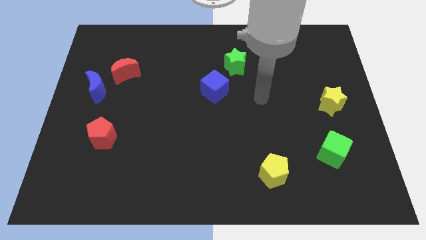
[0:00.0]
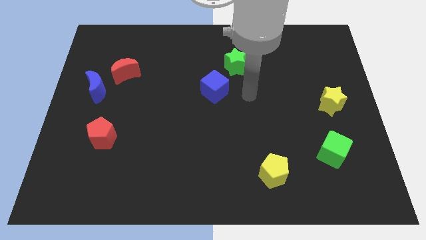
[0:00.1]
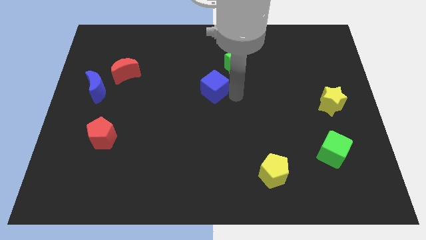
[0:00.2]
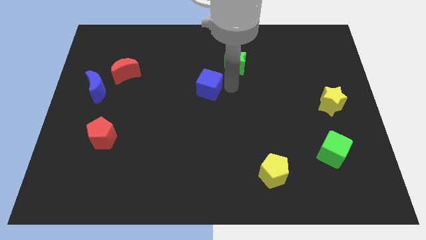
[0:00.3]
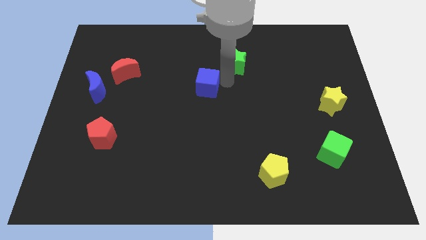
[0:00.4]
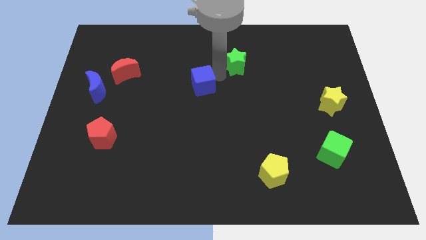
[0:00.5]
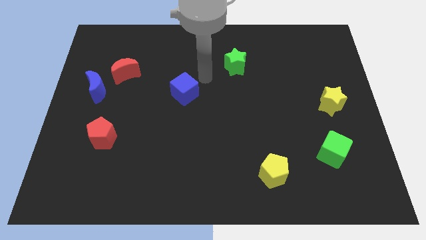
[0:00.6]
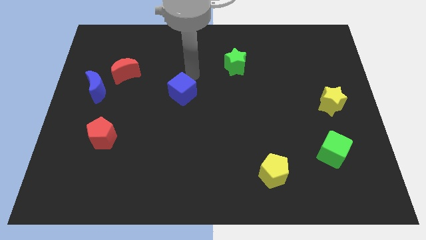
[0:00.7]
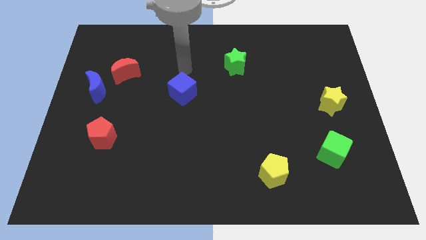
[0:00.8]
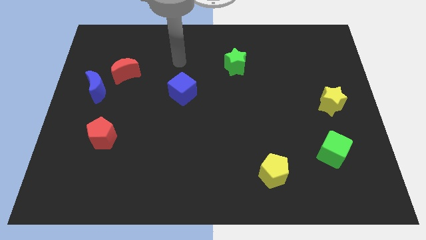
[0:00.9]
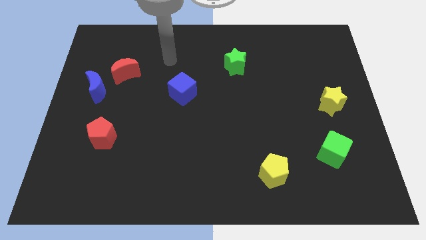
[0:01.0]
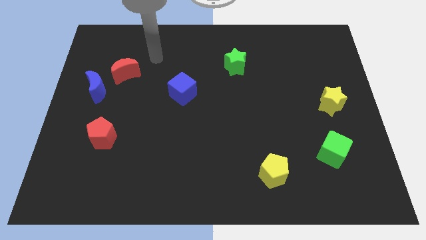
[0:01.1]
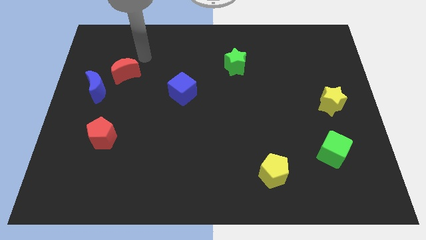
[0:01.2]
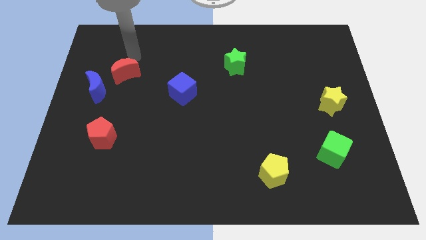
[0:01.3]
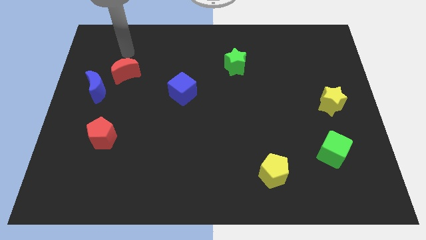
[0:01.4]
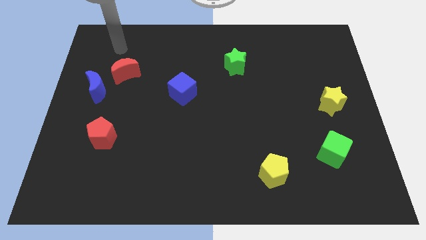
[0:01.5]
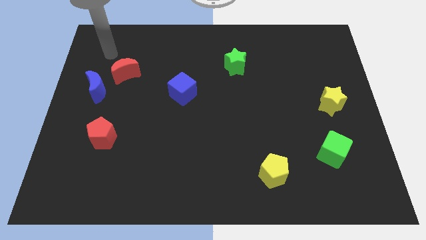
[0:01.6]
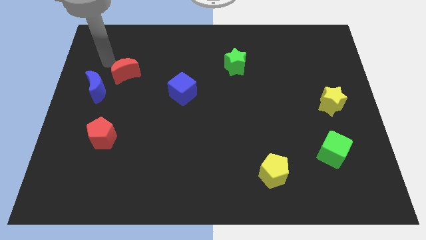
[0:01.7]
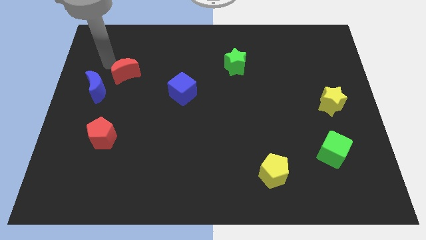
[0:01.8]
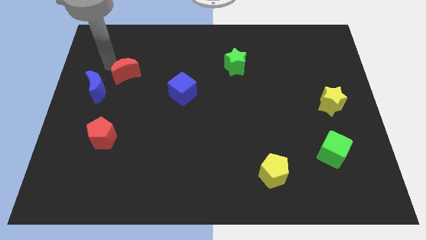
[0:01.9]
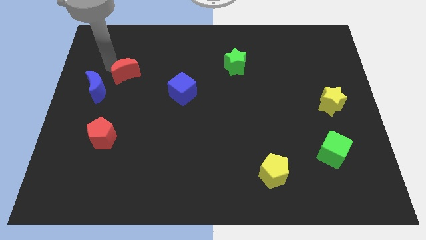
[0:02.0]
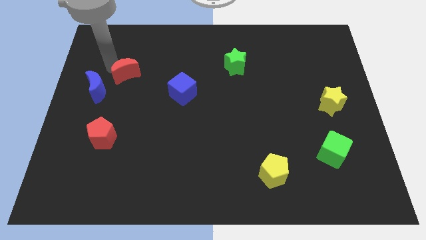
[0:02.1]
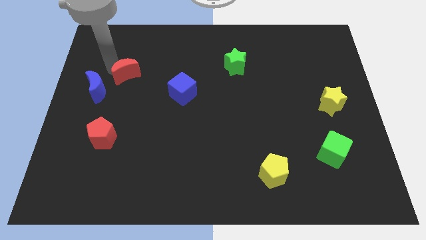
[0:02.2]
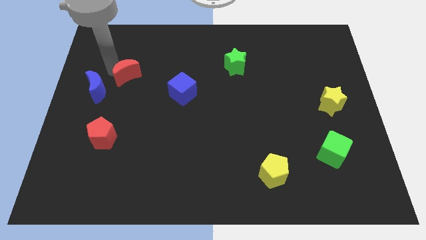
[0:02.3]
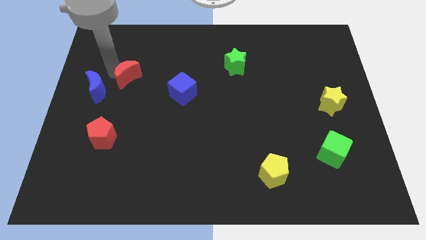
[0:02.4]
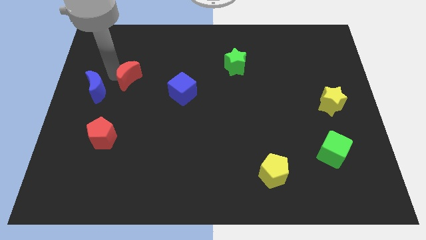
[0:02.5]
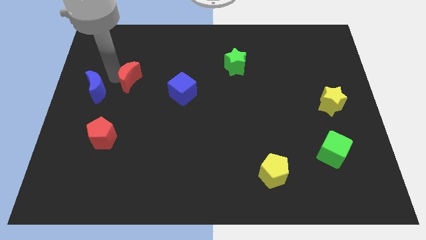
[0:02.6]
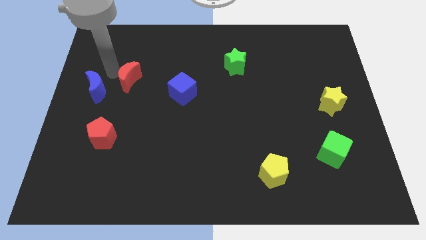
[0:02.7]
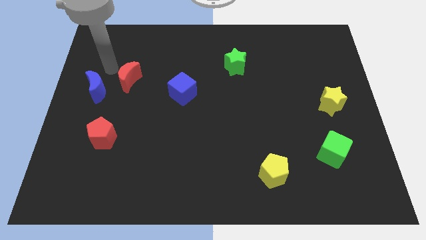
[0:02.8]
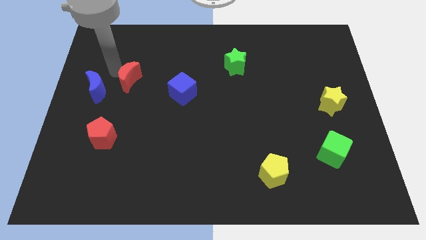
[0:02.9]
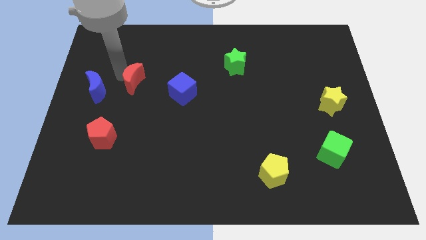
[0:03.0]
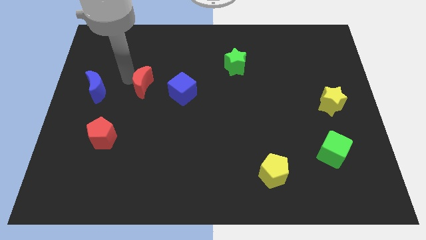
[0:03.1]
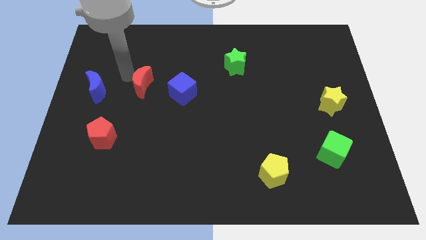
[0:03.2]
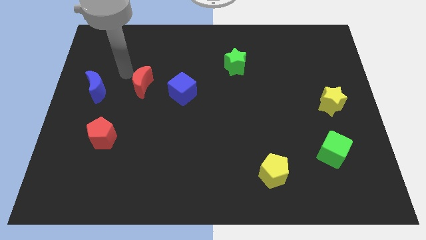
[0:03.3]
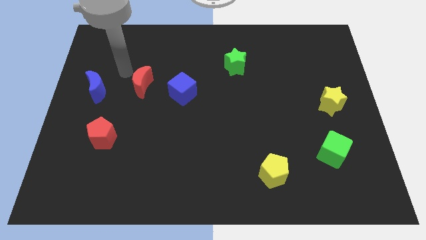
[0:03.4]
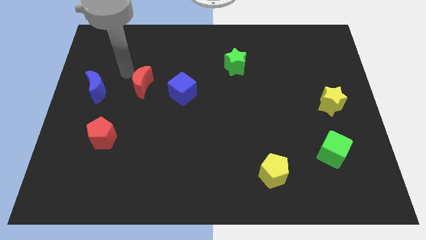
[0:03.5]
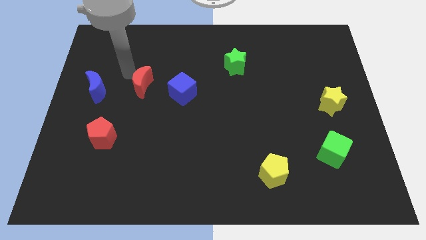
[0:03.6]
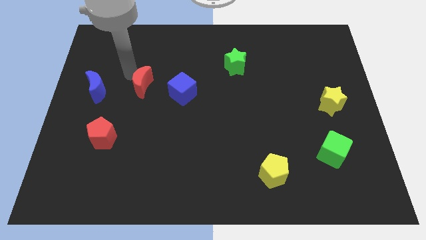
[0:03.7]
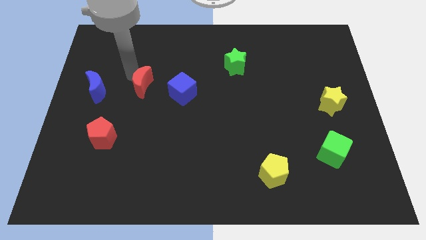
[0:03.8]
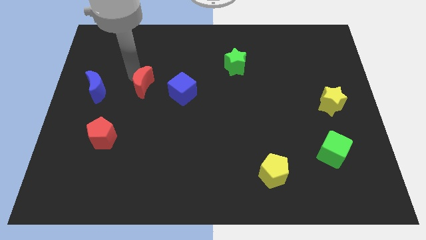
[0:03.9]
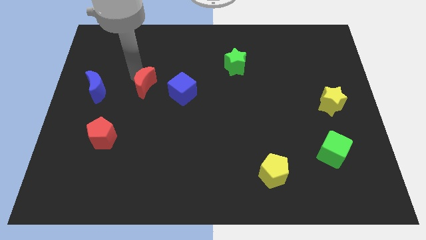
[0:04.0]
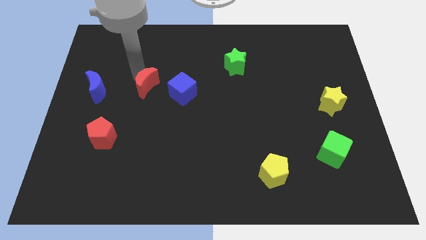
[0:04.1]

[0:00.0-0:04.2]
move the red moon a little downwards and then to the right

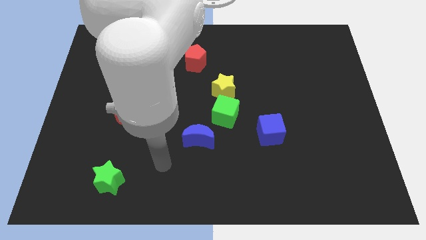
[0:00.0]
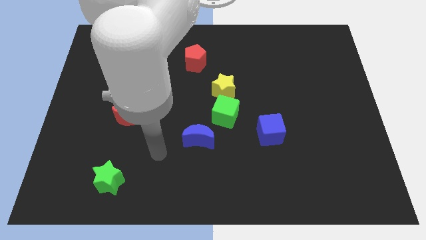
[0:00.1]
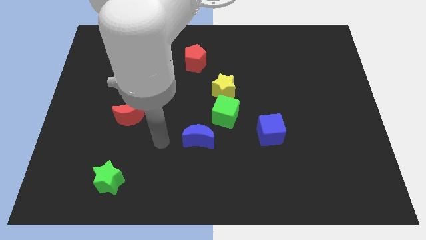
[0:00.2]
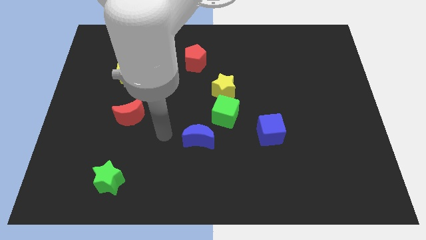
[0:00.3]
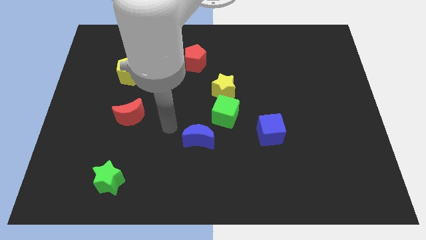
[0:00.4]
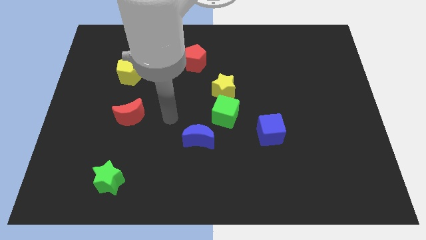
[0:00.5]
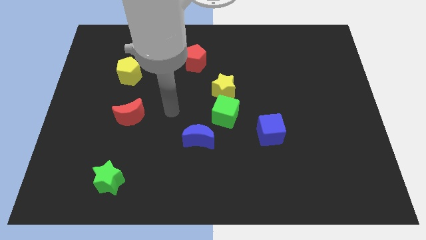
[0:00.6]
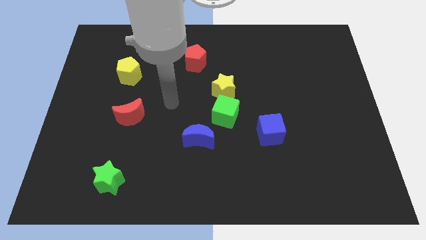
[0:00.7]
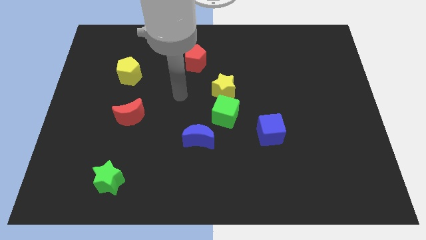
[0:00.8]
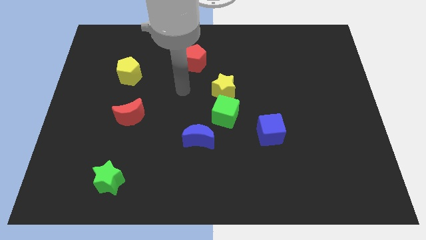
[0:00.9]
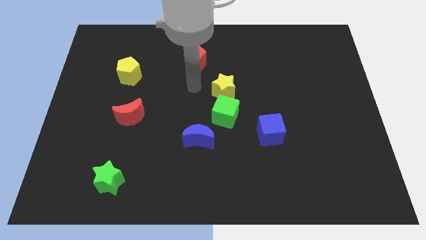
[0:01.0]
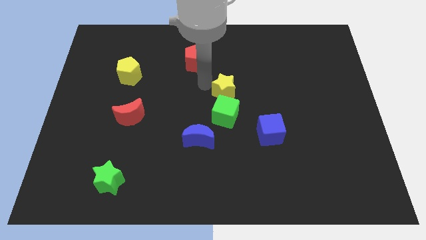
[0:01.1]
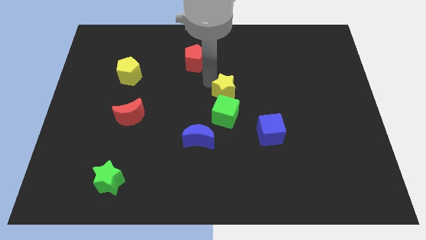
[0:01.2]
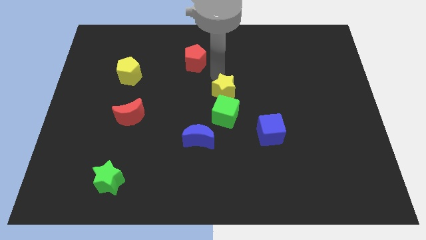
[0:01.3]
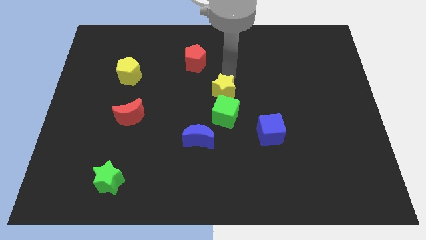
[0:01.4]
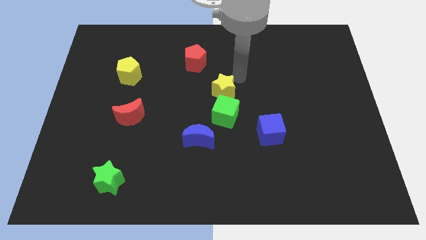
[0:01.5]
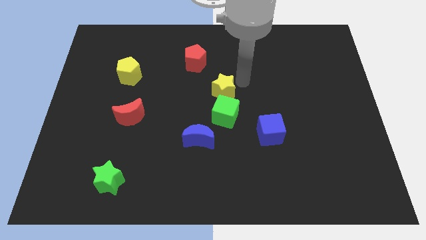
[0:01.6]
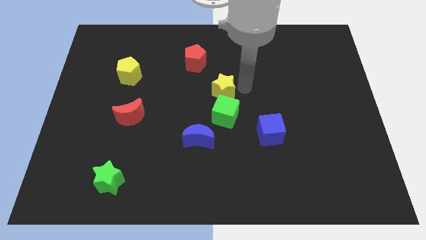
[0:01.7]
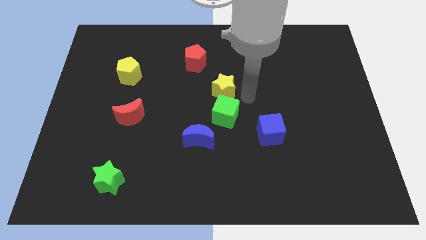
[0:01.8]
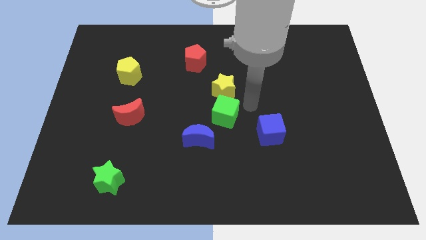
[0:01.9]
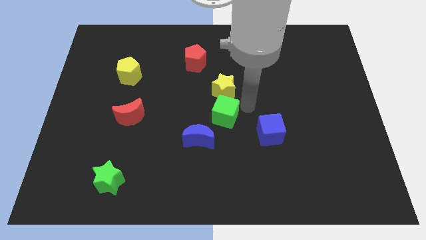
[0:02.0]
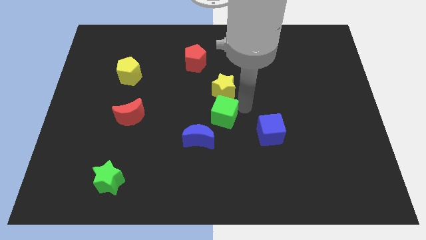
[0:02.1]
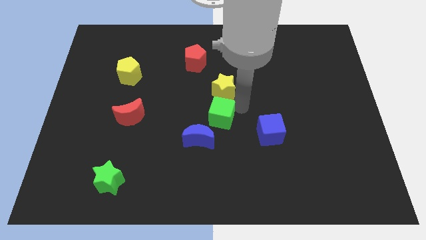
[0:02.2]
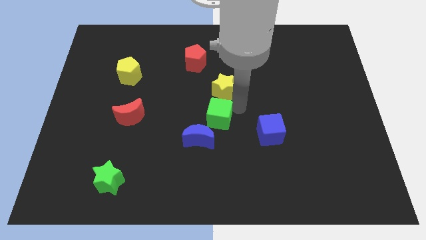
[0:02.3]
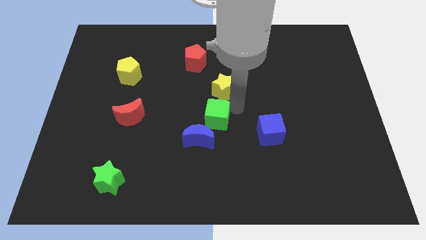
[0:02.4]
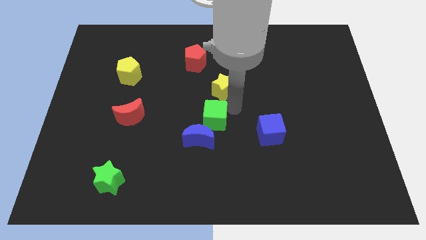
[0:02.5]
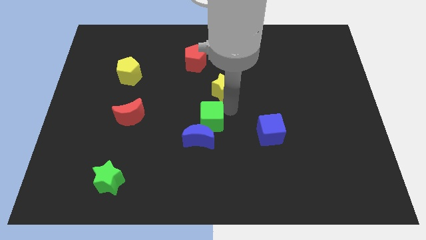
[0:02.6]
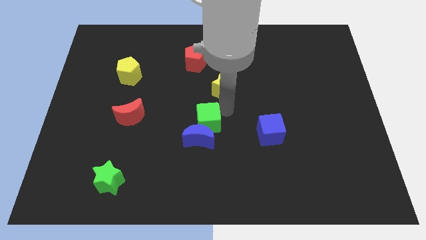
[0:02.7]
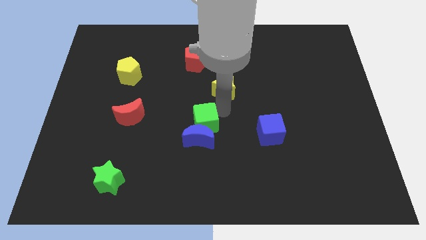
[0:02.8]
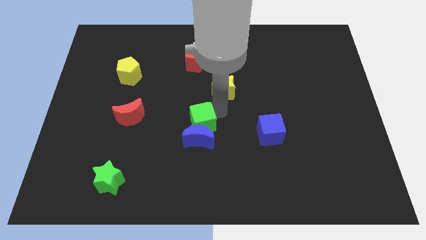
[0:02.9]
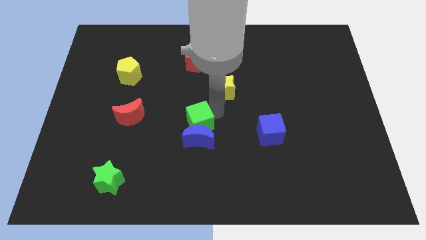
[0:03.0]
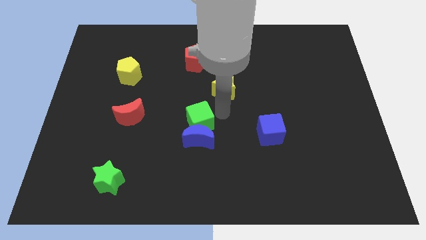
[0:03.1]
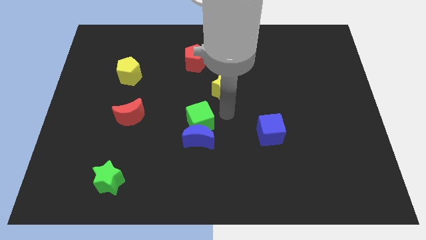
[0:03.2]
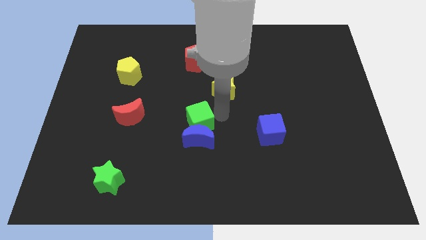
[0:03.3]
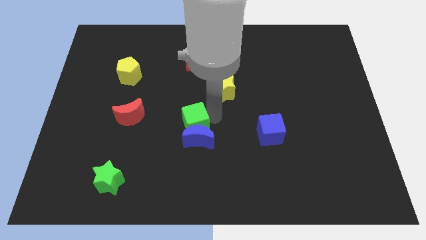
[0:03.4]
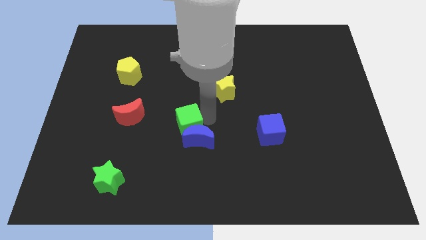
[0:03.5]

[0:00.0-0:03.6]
push the green cube diagonally down and to the left somewhat
